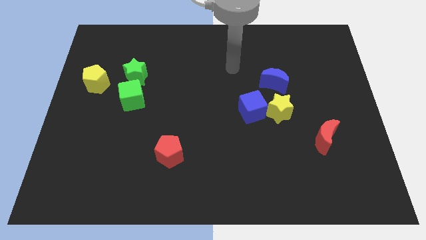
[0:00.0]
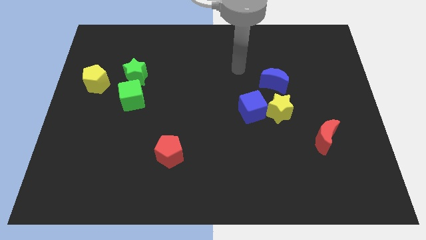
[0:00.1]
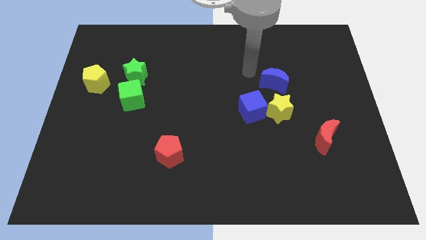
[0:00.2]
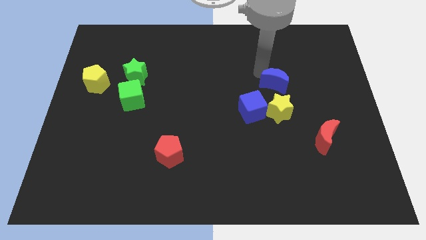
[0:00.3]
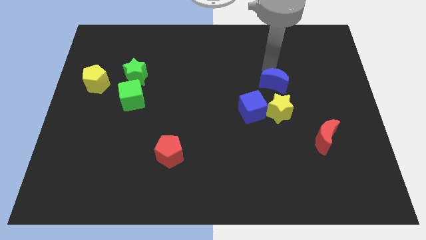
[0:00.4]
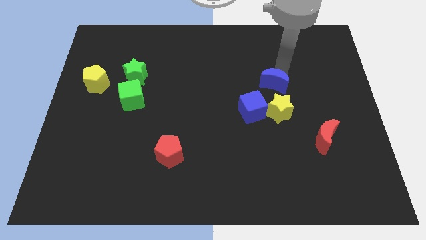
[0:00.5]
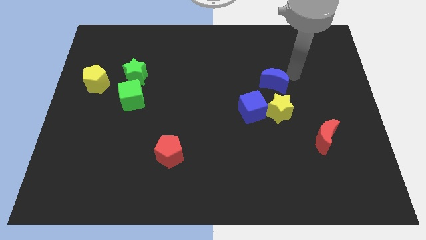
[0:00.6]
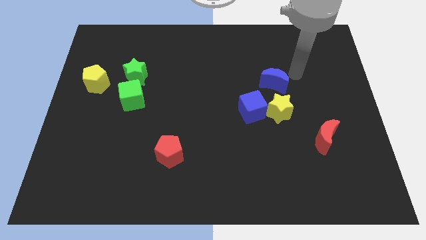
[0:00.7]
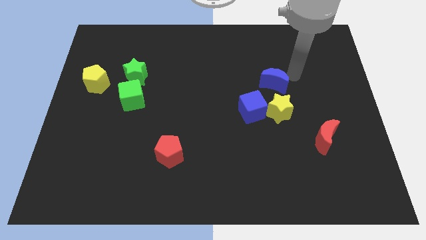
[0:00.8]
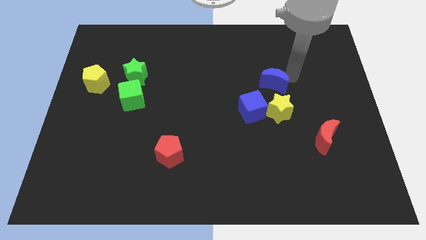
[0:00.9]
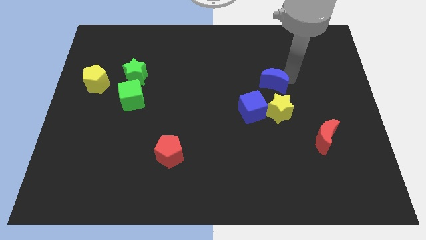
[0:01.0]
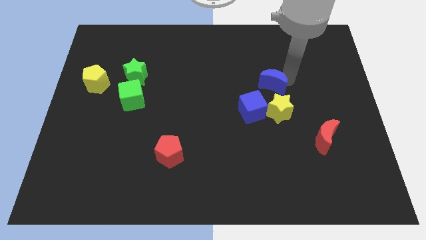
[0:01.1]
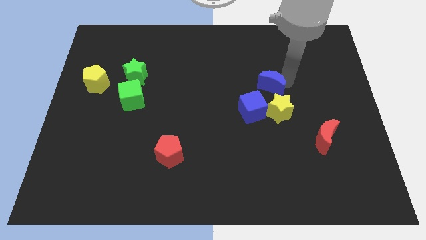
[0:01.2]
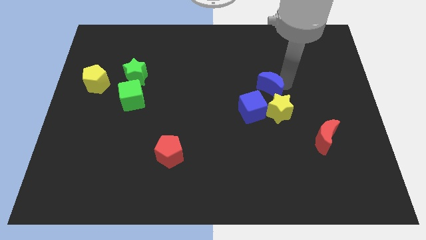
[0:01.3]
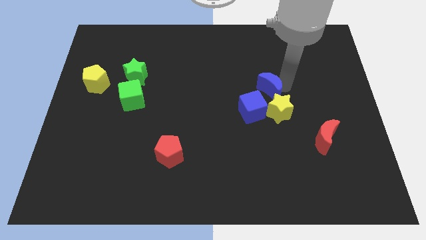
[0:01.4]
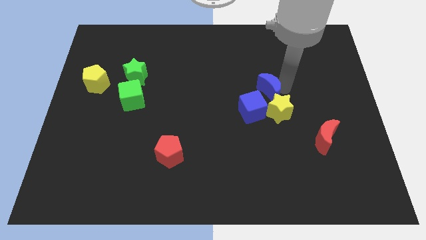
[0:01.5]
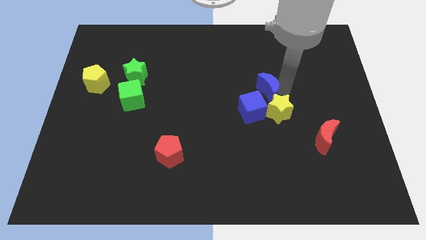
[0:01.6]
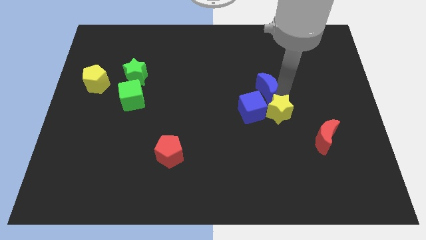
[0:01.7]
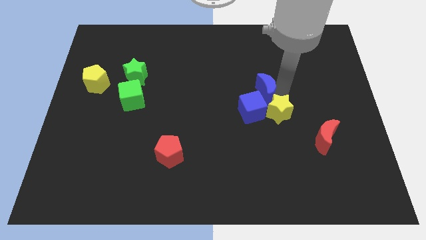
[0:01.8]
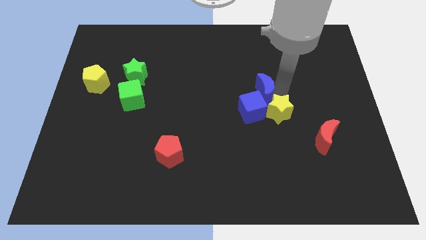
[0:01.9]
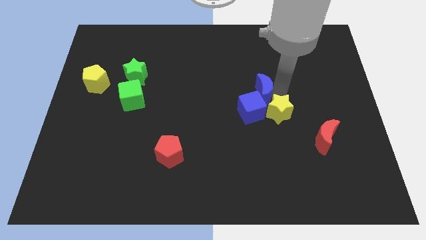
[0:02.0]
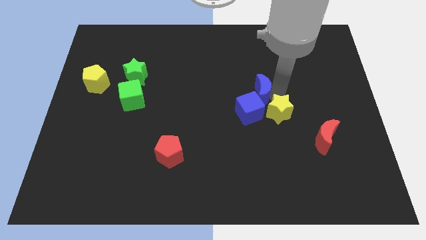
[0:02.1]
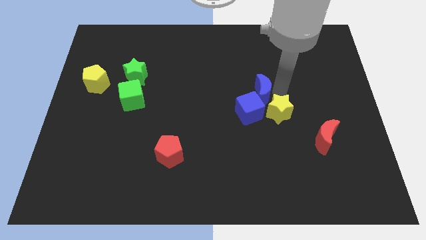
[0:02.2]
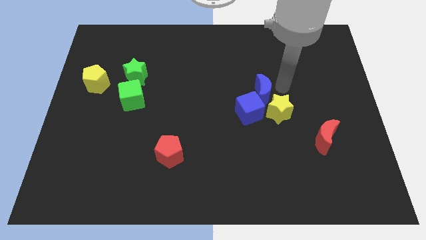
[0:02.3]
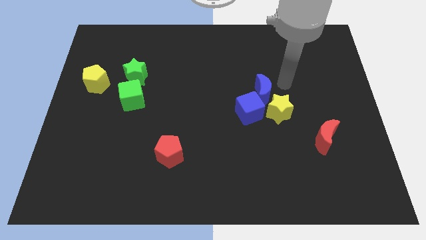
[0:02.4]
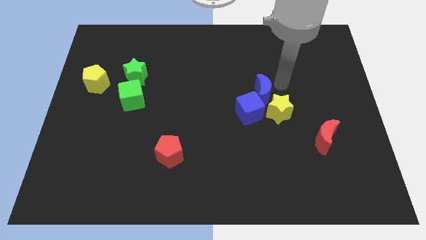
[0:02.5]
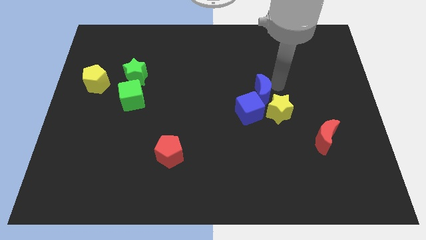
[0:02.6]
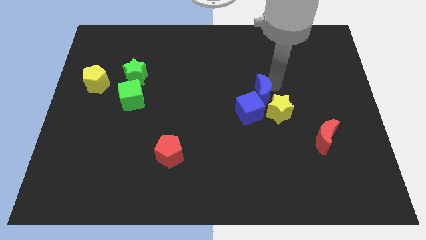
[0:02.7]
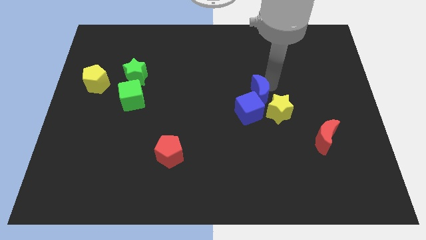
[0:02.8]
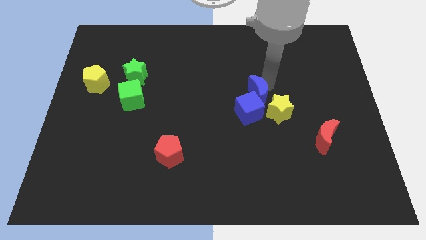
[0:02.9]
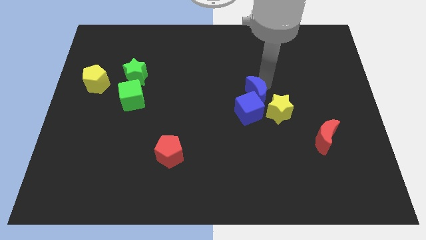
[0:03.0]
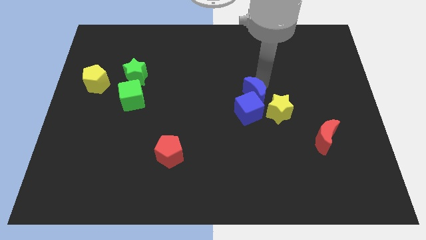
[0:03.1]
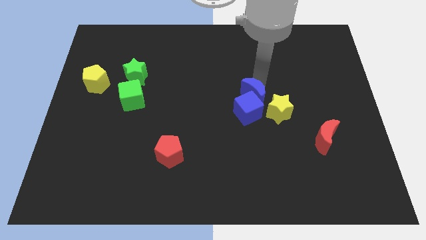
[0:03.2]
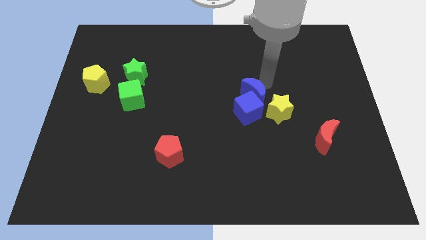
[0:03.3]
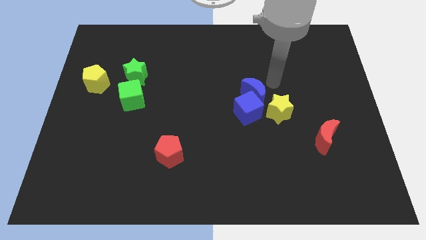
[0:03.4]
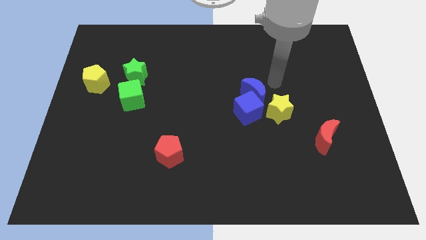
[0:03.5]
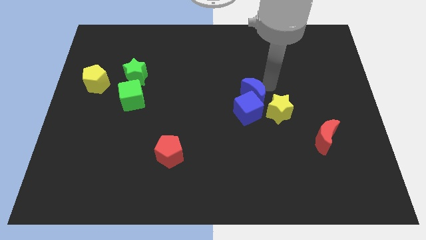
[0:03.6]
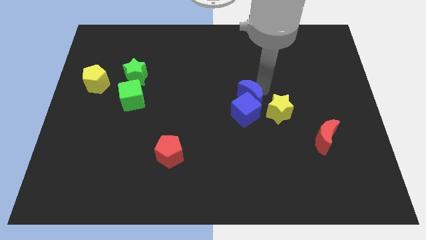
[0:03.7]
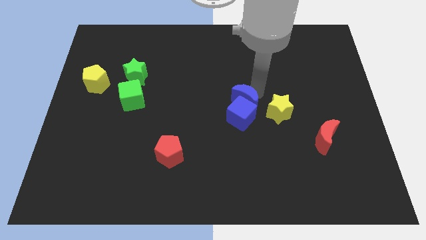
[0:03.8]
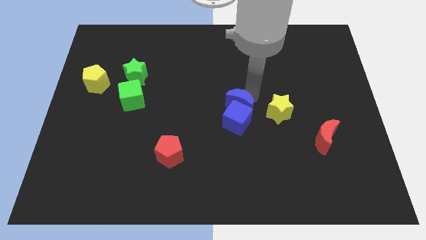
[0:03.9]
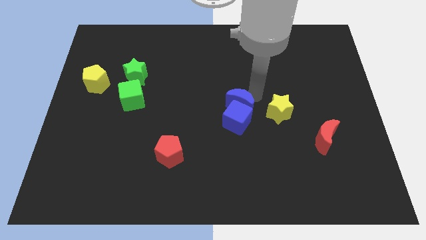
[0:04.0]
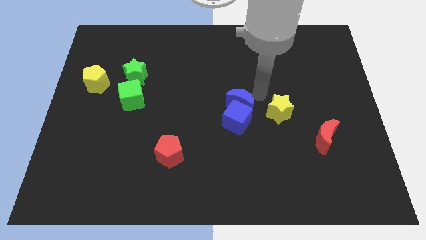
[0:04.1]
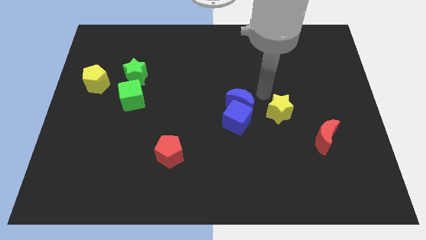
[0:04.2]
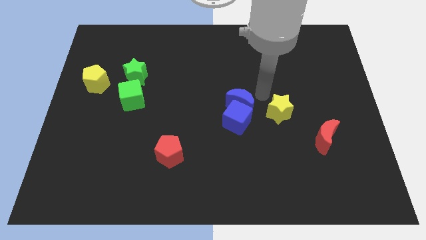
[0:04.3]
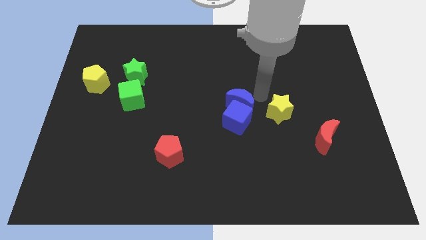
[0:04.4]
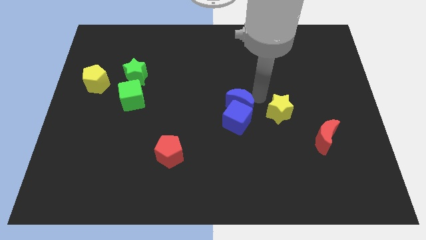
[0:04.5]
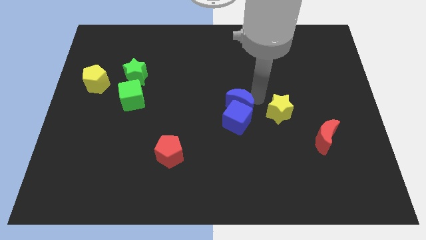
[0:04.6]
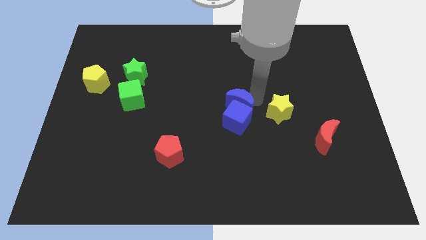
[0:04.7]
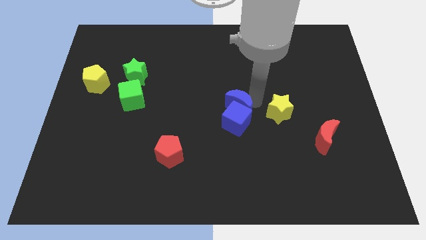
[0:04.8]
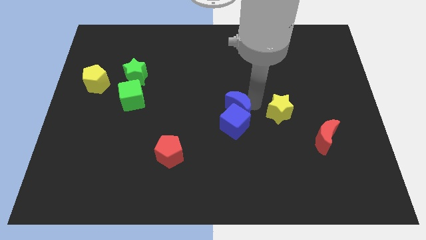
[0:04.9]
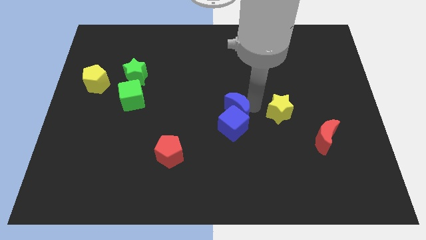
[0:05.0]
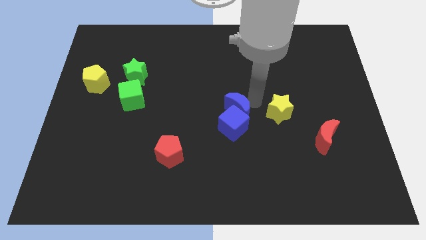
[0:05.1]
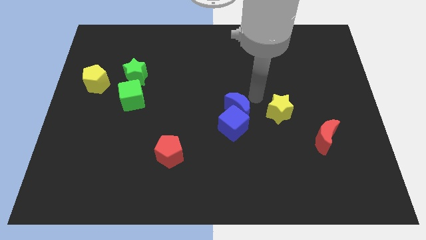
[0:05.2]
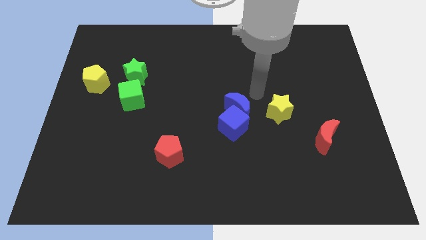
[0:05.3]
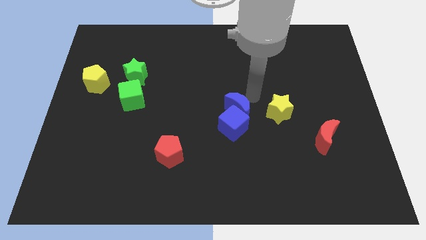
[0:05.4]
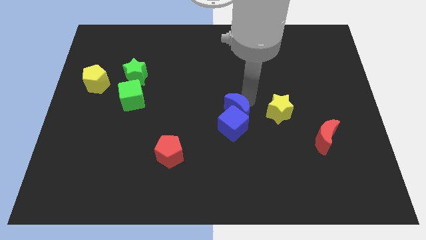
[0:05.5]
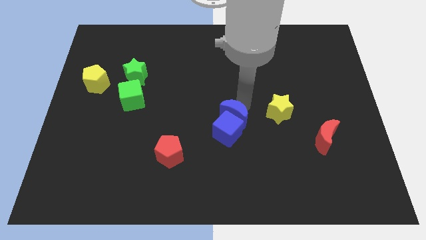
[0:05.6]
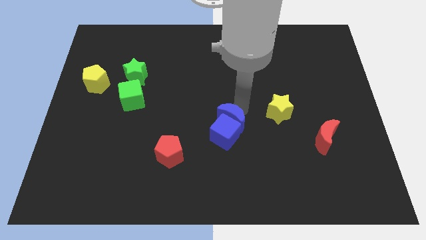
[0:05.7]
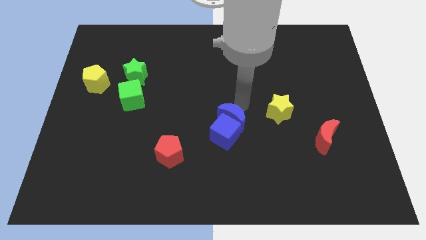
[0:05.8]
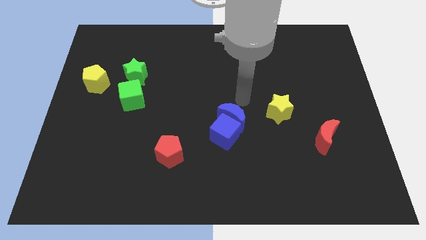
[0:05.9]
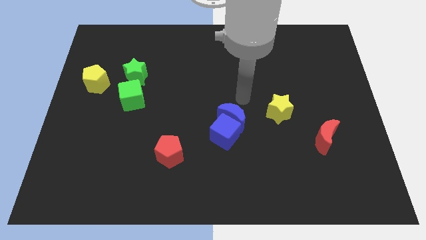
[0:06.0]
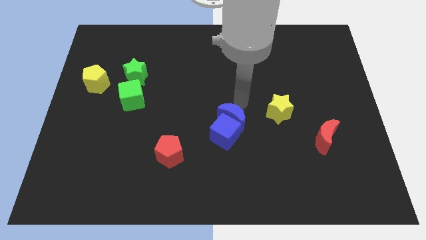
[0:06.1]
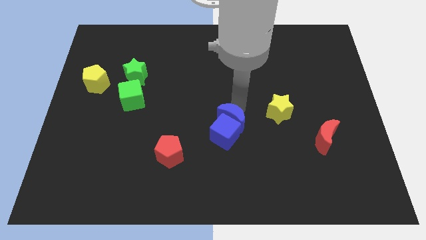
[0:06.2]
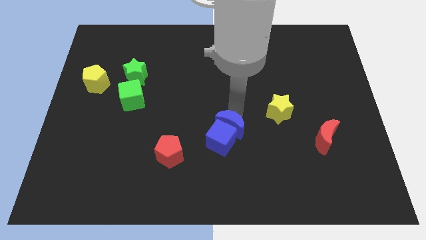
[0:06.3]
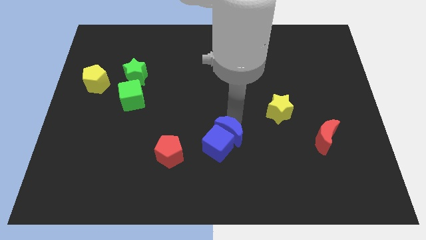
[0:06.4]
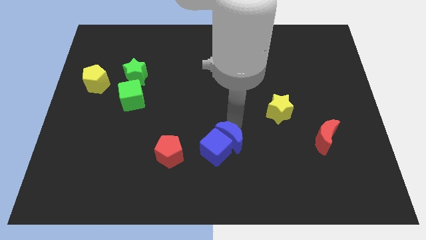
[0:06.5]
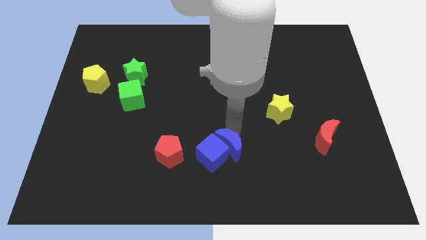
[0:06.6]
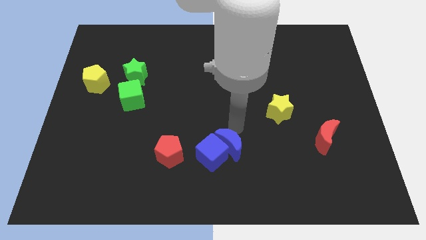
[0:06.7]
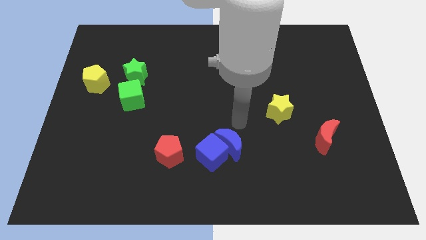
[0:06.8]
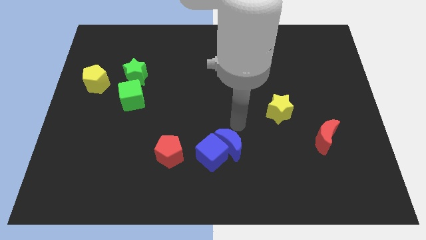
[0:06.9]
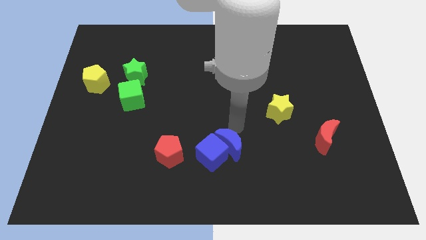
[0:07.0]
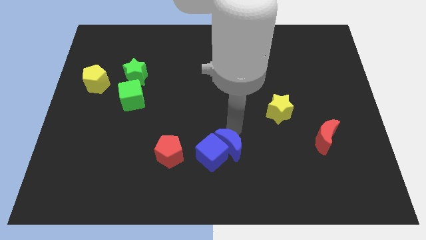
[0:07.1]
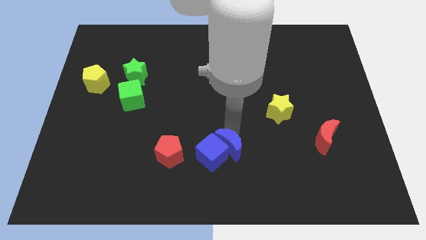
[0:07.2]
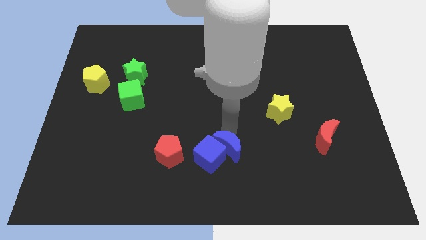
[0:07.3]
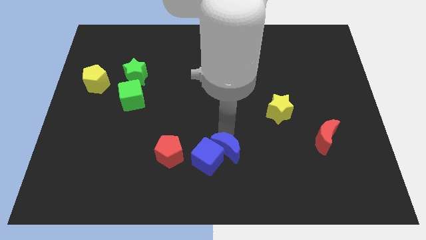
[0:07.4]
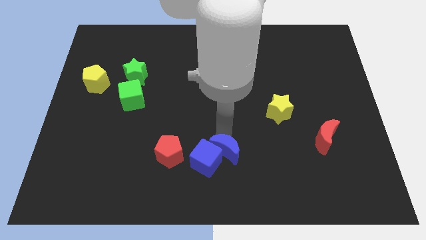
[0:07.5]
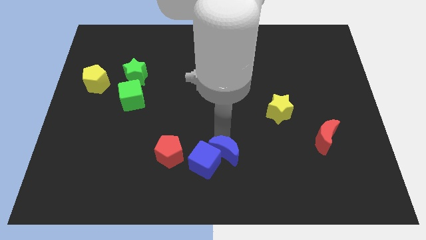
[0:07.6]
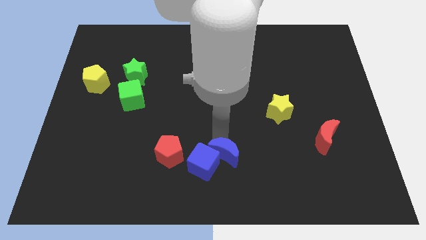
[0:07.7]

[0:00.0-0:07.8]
put the blue moon to the bottom
